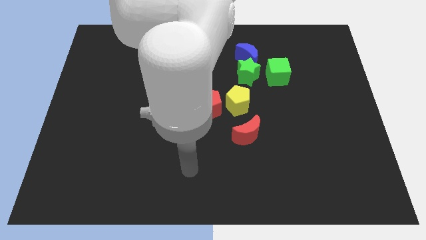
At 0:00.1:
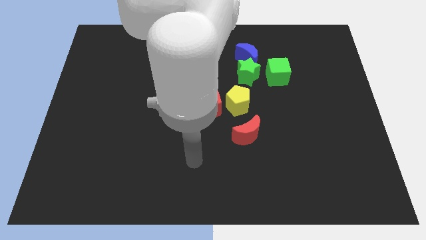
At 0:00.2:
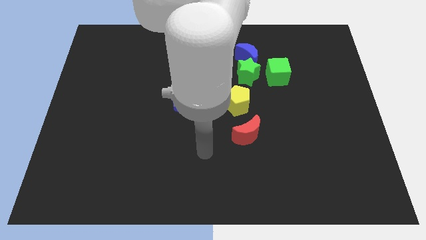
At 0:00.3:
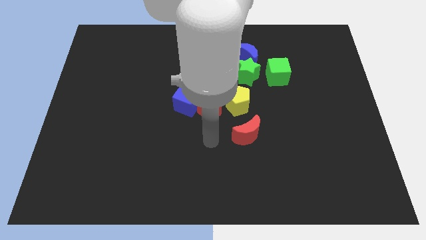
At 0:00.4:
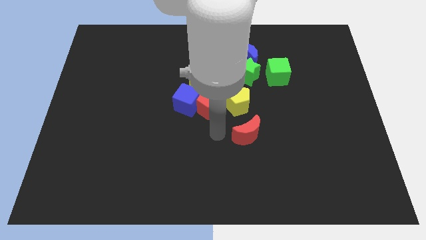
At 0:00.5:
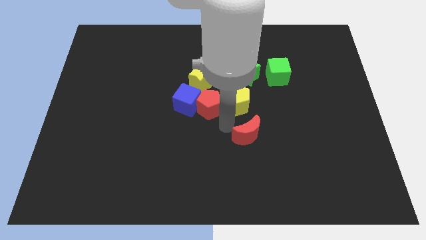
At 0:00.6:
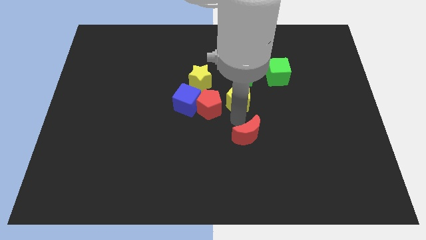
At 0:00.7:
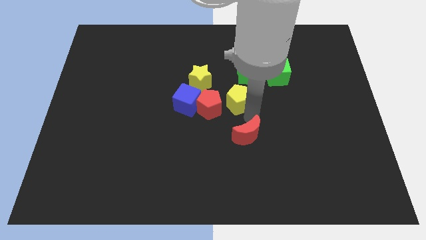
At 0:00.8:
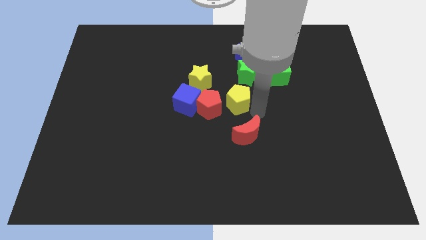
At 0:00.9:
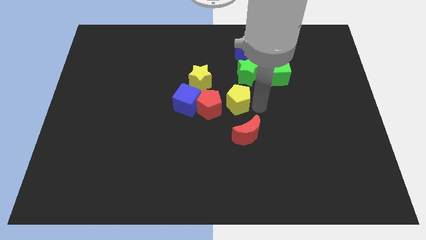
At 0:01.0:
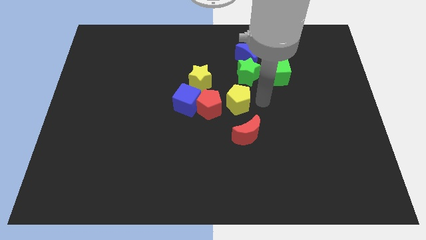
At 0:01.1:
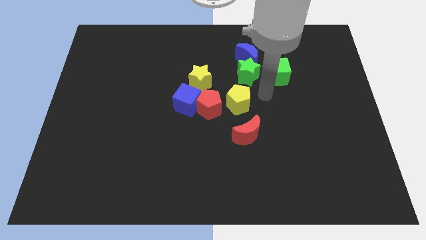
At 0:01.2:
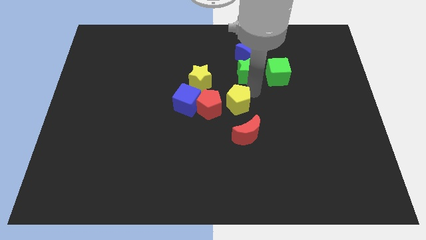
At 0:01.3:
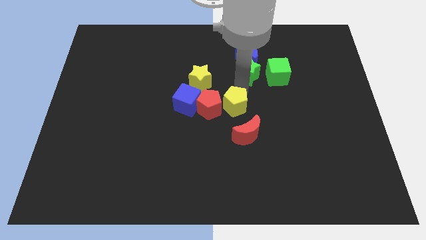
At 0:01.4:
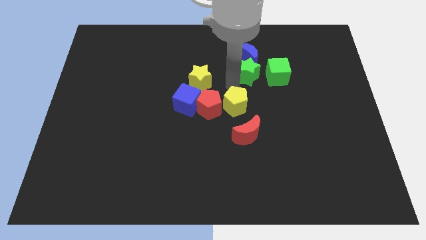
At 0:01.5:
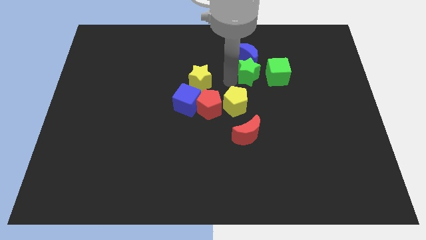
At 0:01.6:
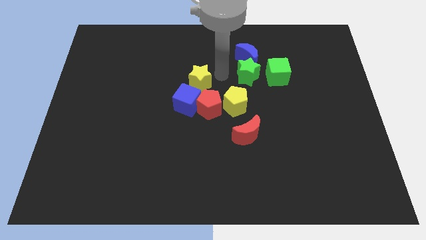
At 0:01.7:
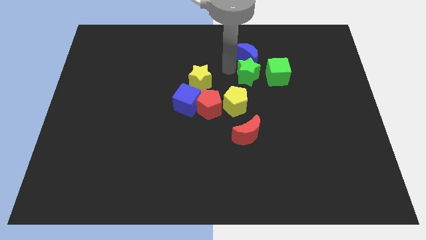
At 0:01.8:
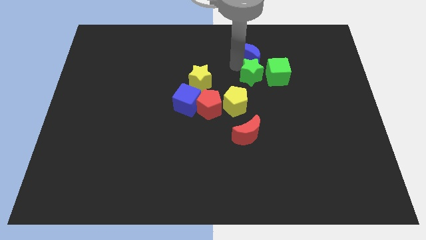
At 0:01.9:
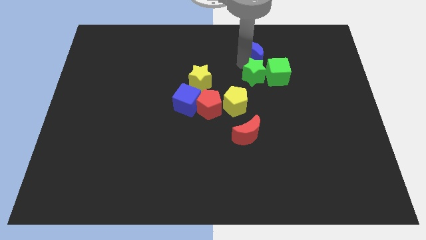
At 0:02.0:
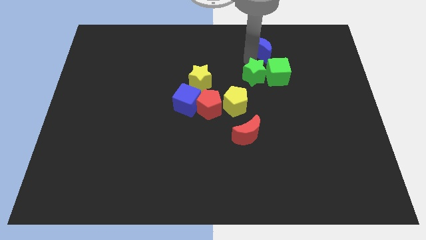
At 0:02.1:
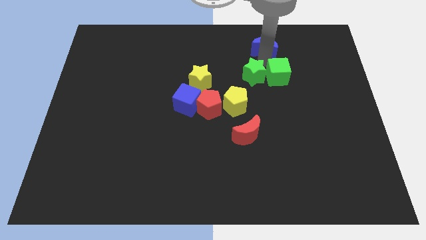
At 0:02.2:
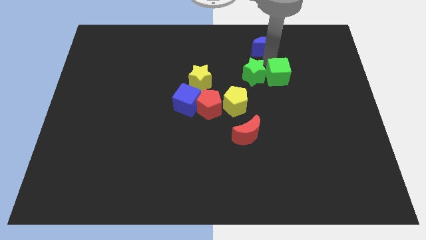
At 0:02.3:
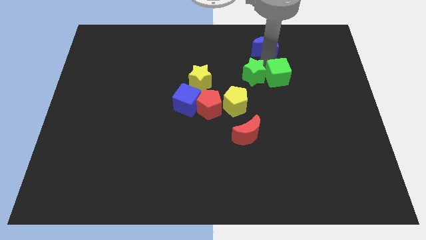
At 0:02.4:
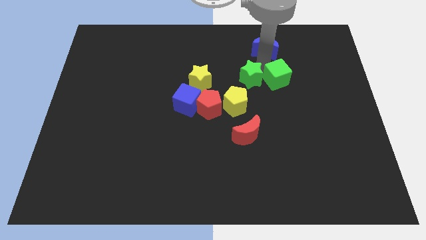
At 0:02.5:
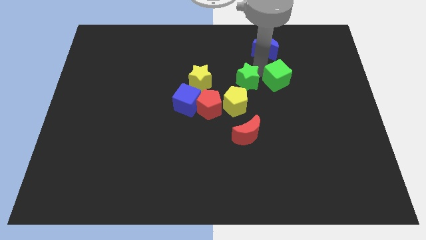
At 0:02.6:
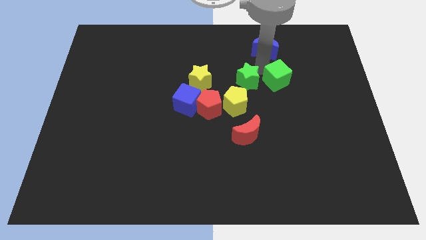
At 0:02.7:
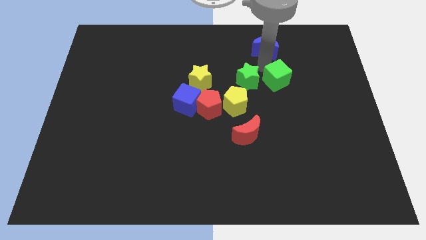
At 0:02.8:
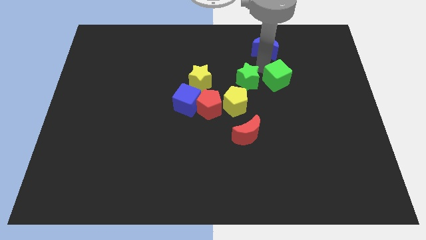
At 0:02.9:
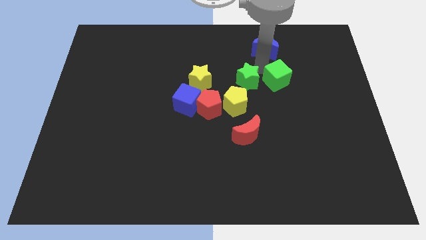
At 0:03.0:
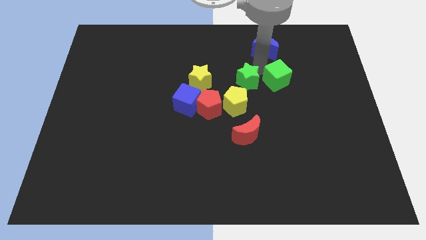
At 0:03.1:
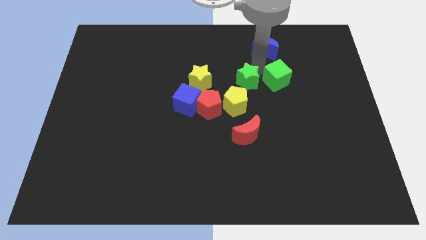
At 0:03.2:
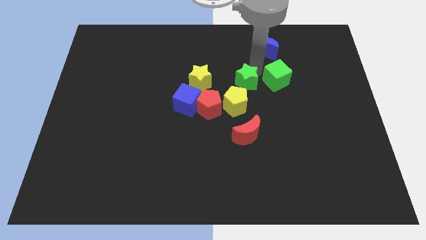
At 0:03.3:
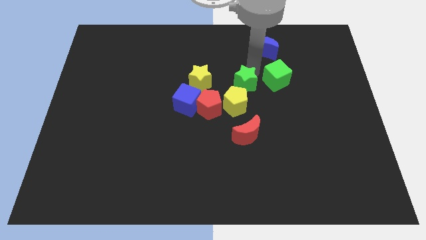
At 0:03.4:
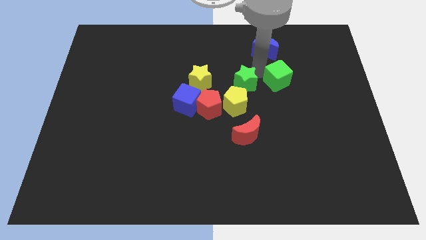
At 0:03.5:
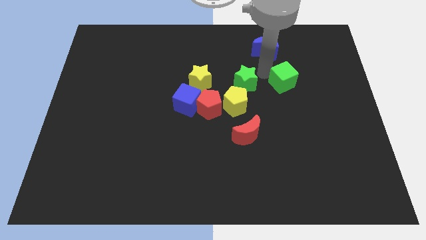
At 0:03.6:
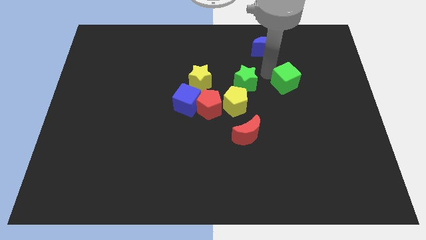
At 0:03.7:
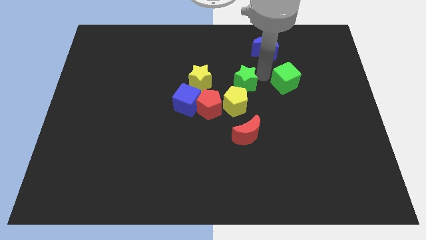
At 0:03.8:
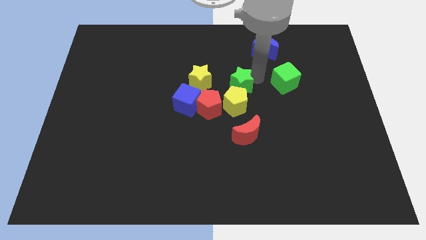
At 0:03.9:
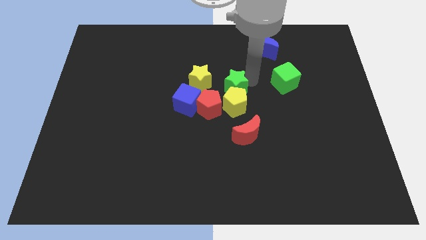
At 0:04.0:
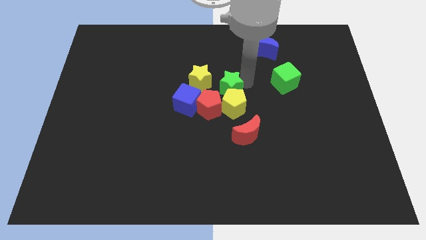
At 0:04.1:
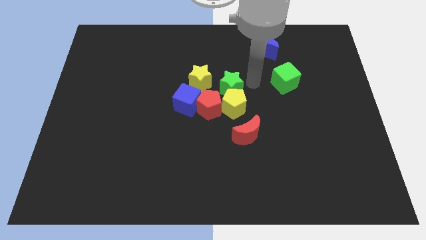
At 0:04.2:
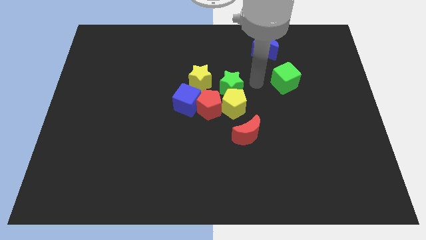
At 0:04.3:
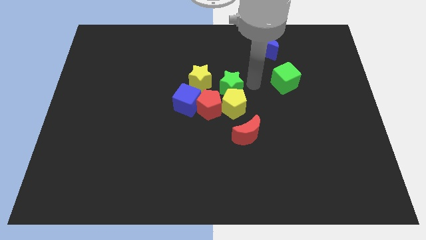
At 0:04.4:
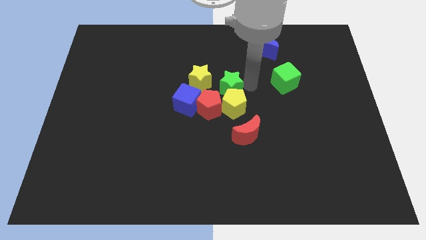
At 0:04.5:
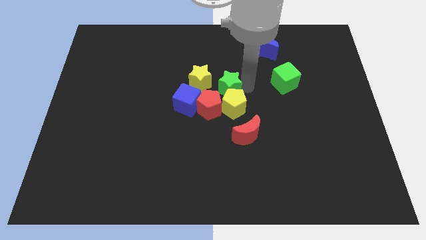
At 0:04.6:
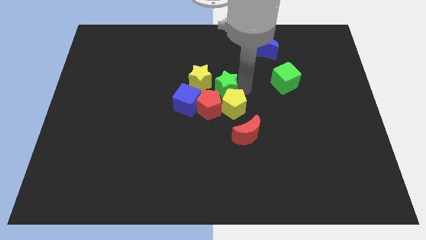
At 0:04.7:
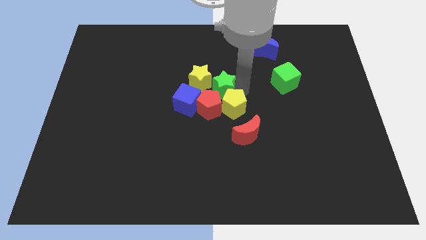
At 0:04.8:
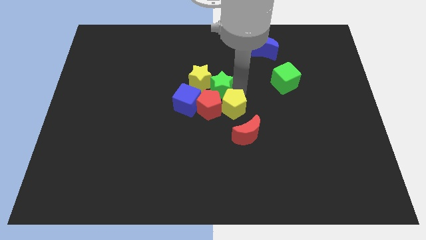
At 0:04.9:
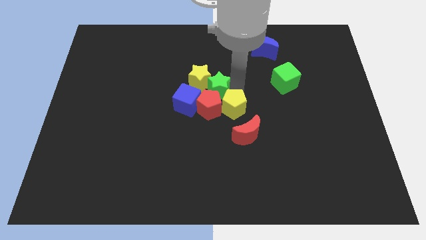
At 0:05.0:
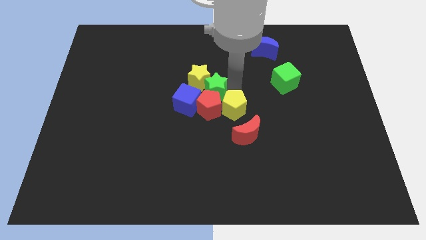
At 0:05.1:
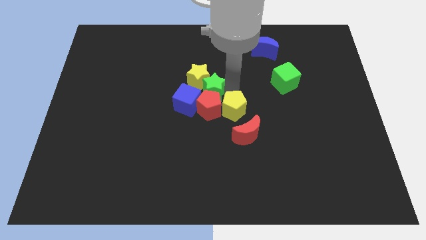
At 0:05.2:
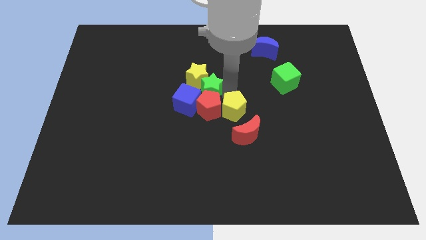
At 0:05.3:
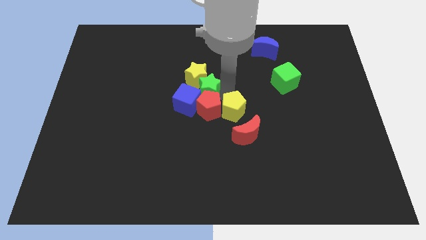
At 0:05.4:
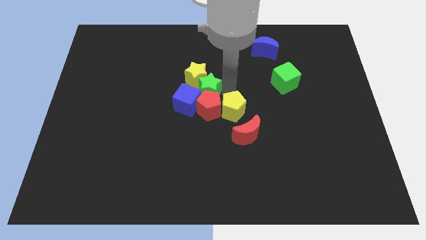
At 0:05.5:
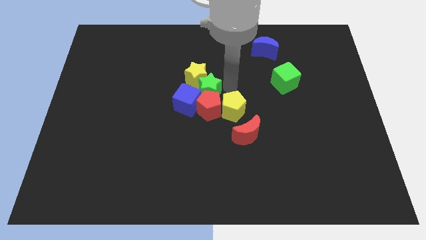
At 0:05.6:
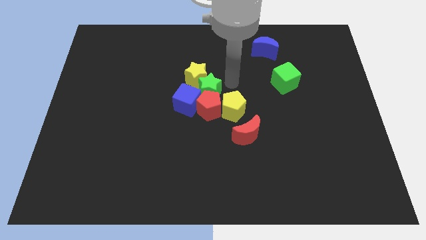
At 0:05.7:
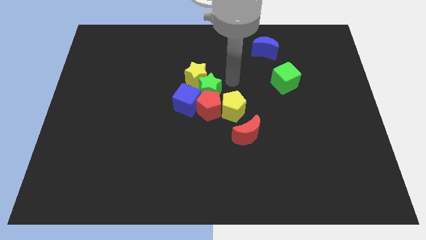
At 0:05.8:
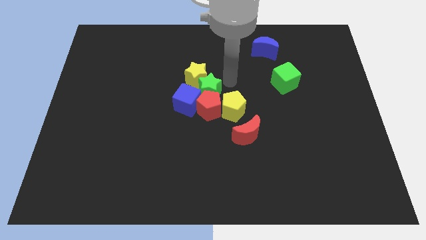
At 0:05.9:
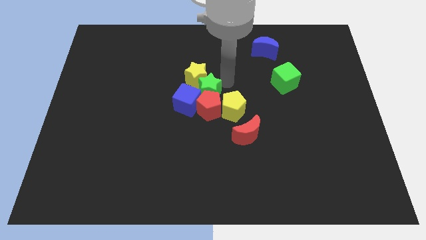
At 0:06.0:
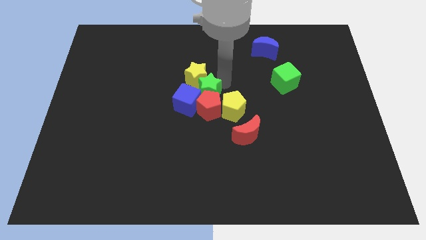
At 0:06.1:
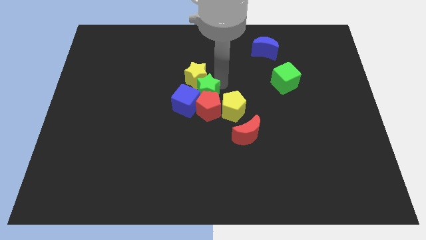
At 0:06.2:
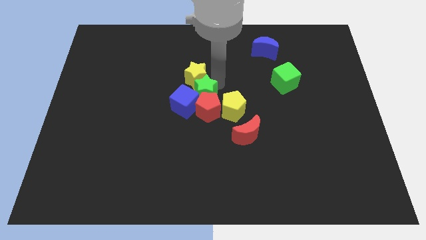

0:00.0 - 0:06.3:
slide the green star towards the blue cube

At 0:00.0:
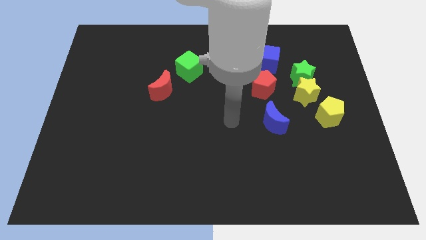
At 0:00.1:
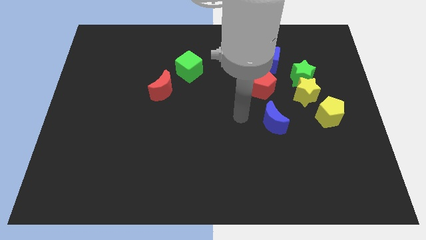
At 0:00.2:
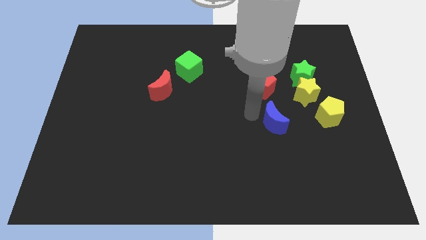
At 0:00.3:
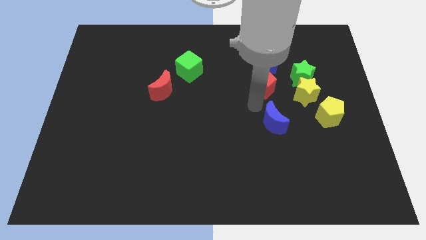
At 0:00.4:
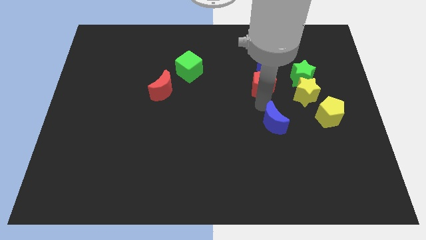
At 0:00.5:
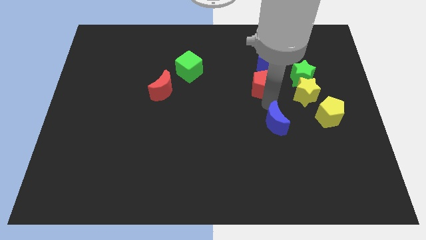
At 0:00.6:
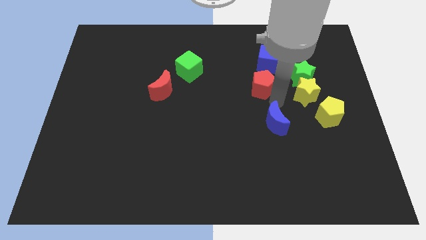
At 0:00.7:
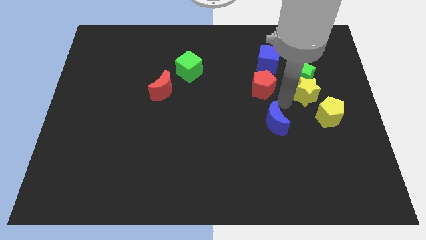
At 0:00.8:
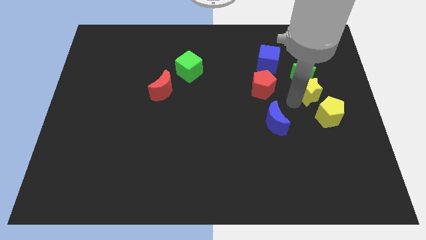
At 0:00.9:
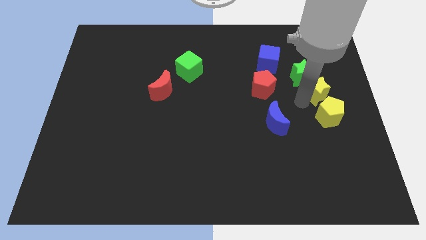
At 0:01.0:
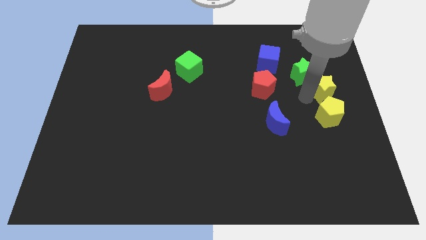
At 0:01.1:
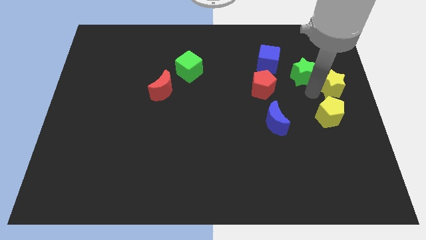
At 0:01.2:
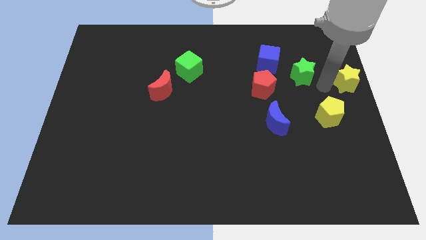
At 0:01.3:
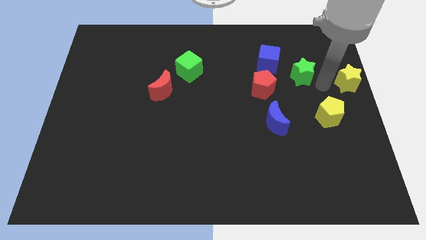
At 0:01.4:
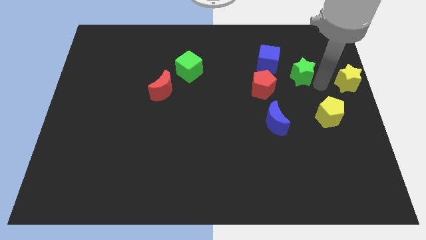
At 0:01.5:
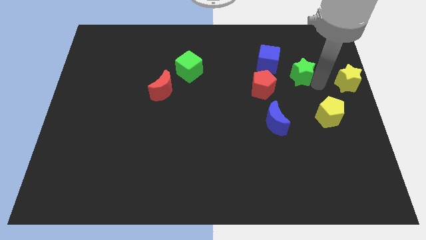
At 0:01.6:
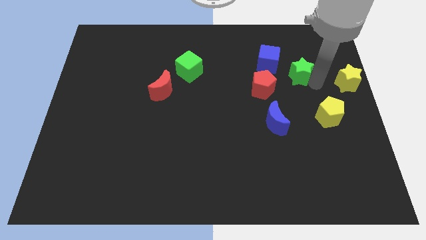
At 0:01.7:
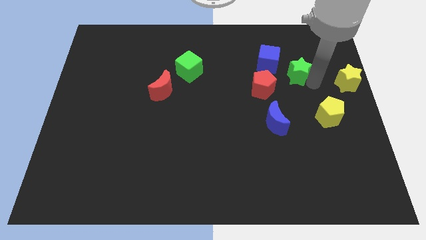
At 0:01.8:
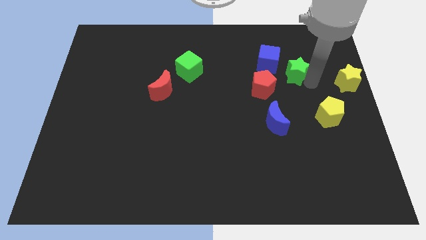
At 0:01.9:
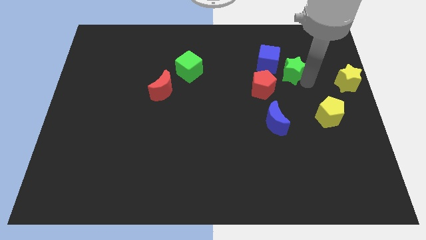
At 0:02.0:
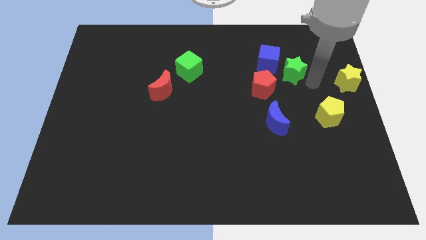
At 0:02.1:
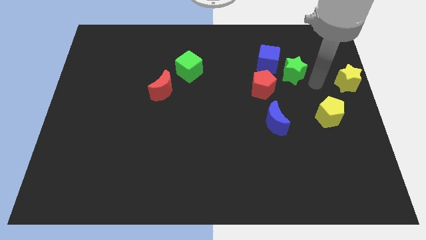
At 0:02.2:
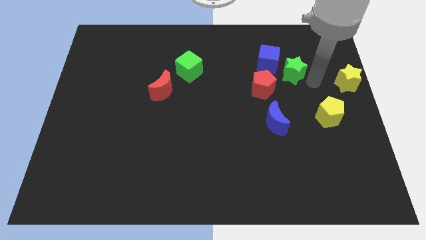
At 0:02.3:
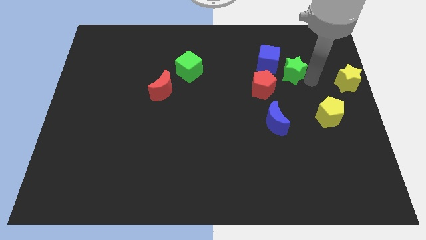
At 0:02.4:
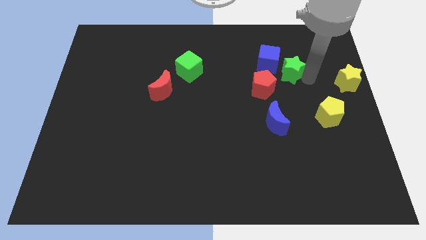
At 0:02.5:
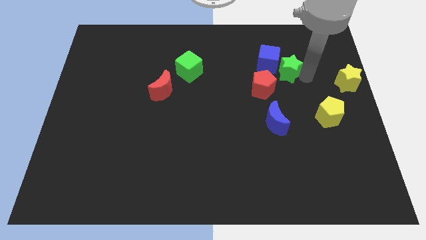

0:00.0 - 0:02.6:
move the green star towards the blue cube
